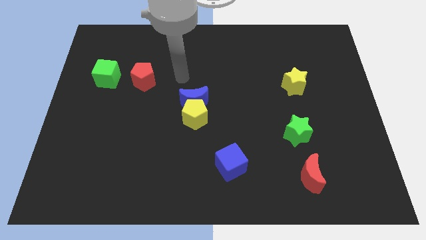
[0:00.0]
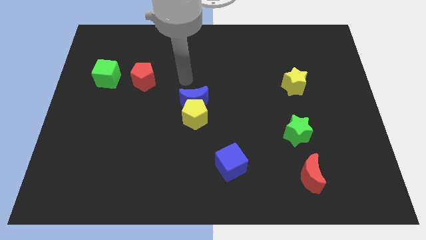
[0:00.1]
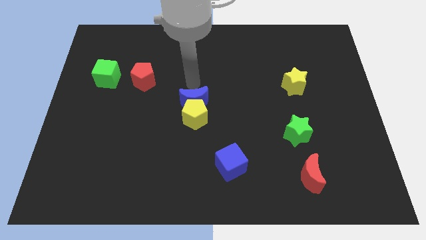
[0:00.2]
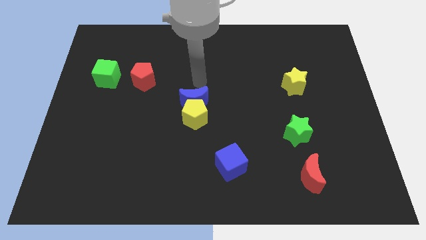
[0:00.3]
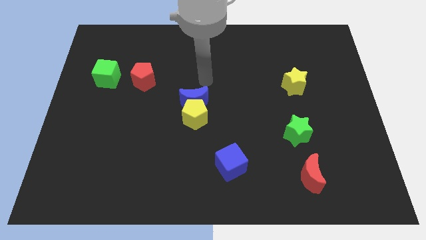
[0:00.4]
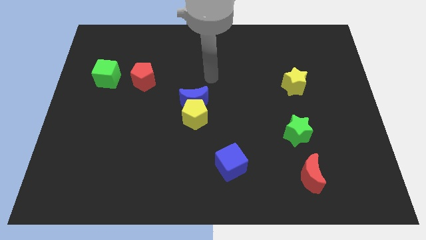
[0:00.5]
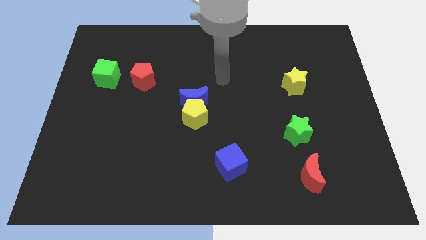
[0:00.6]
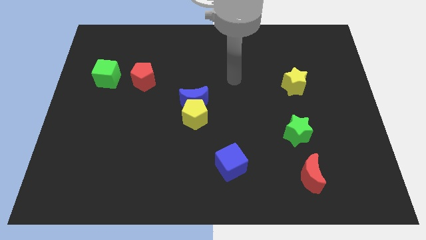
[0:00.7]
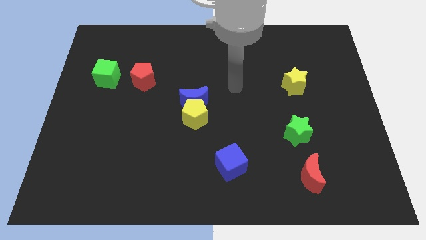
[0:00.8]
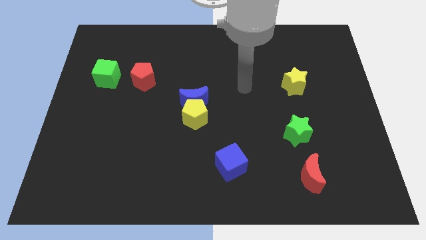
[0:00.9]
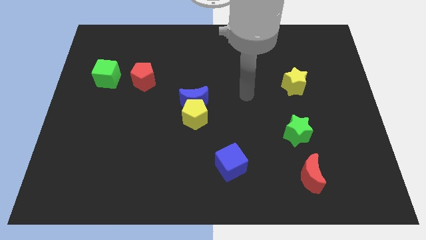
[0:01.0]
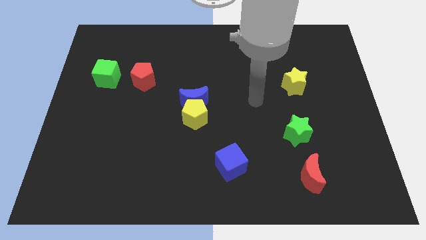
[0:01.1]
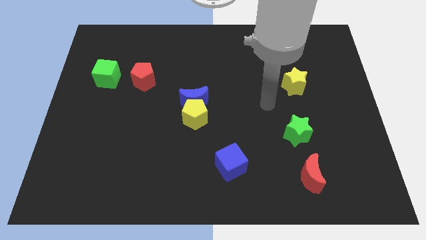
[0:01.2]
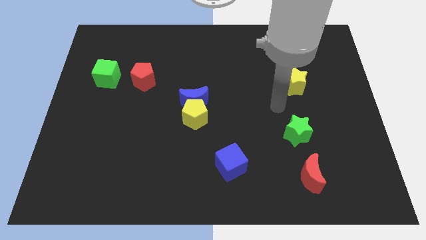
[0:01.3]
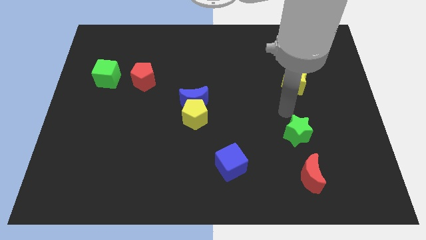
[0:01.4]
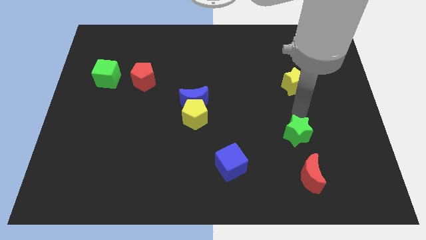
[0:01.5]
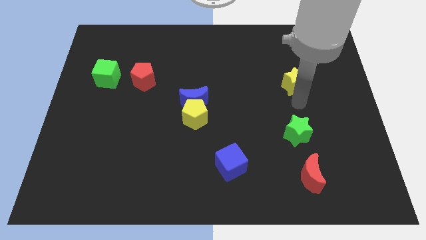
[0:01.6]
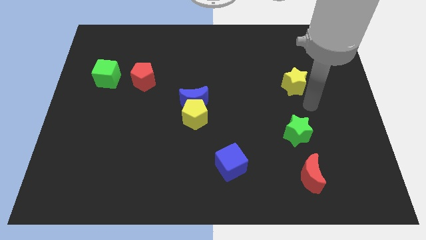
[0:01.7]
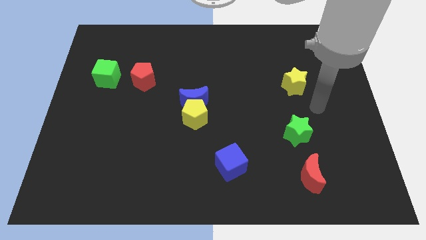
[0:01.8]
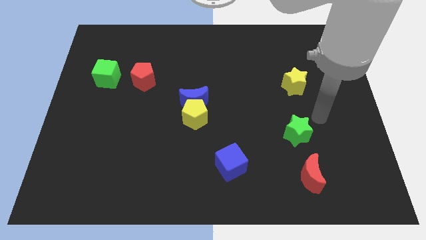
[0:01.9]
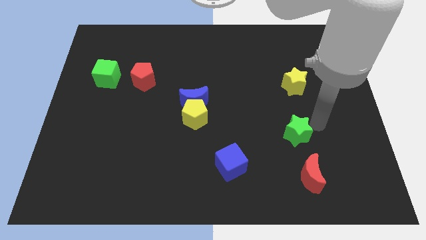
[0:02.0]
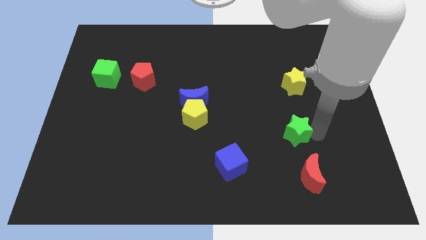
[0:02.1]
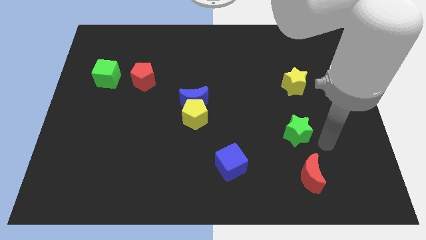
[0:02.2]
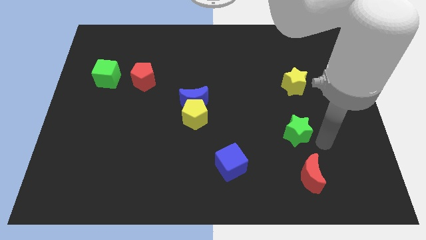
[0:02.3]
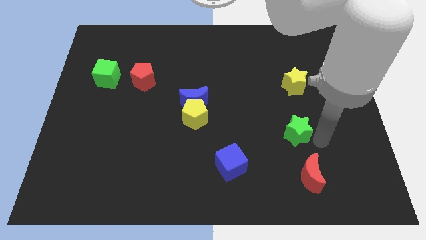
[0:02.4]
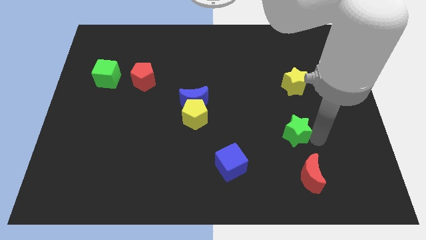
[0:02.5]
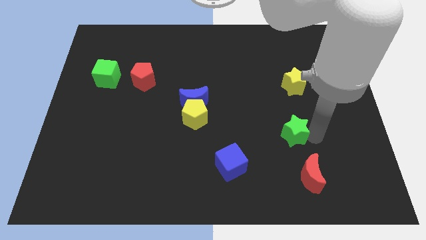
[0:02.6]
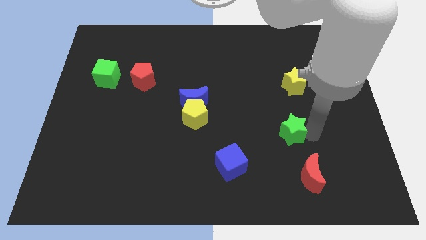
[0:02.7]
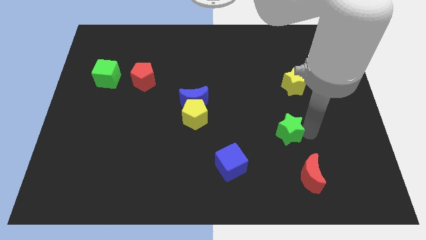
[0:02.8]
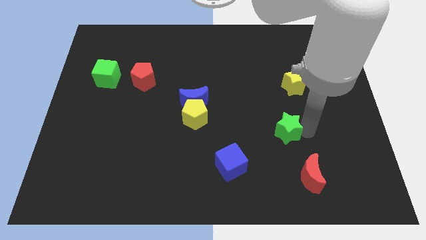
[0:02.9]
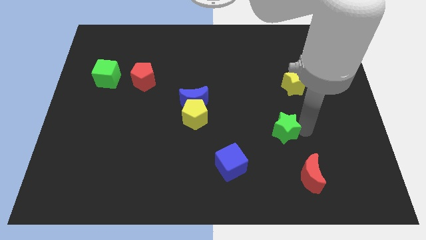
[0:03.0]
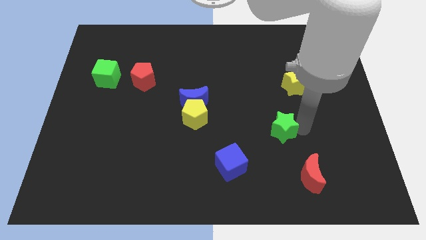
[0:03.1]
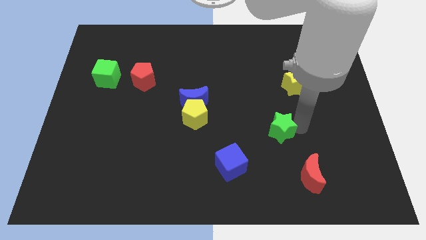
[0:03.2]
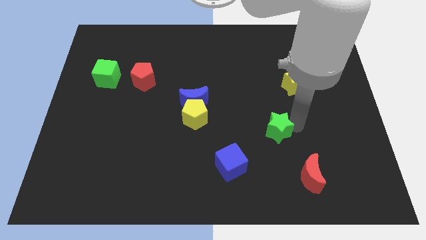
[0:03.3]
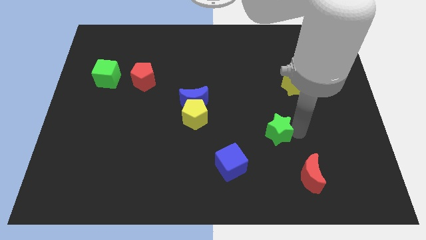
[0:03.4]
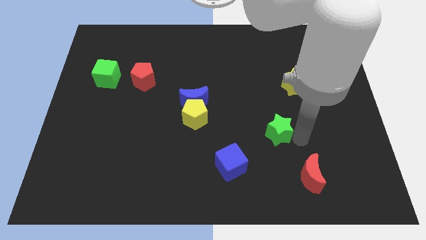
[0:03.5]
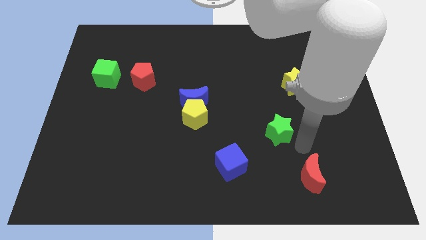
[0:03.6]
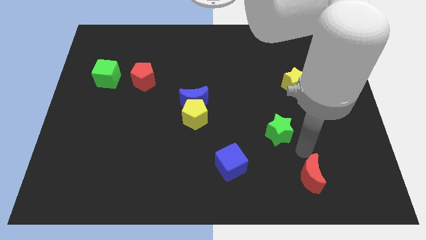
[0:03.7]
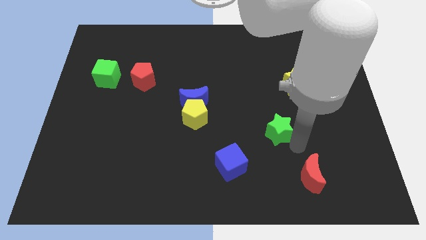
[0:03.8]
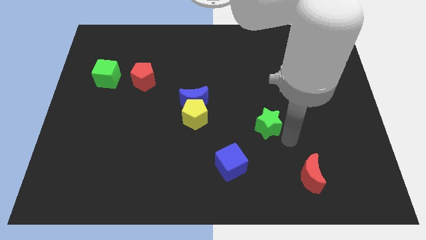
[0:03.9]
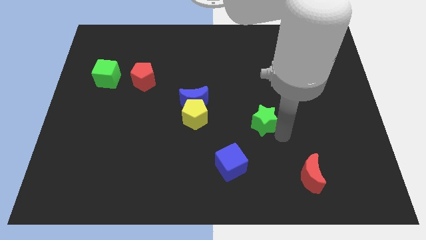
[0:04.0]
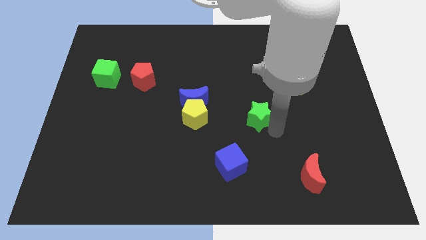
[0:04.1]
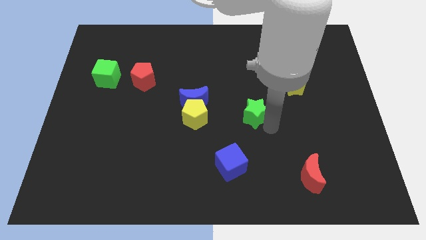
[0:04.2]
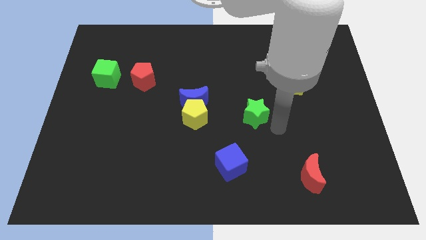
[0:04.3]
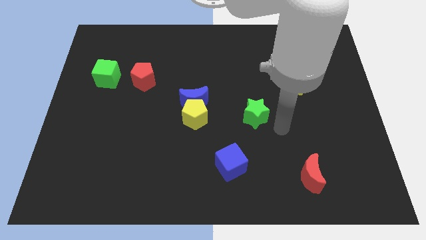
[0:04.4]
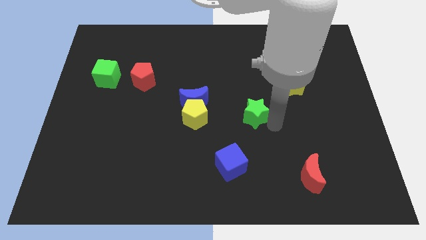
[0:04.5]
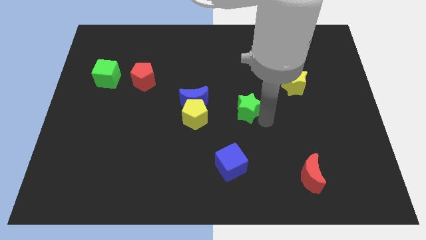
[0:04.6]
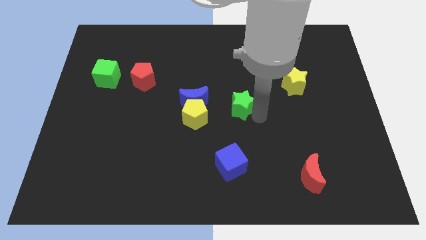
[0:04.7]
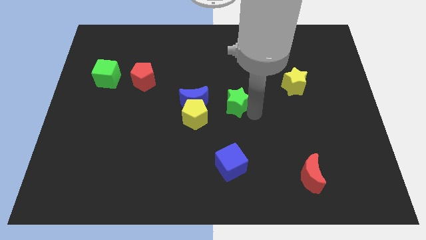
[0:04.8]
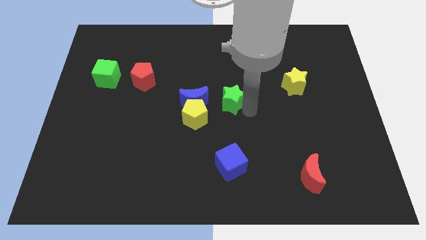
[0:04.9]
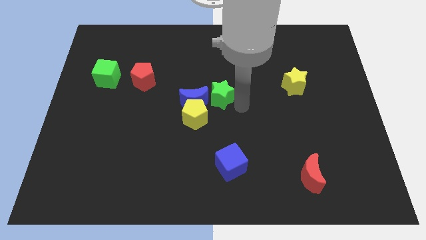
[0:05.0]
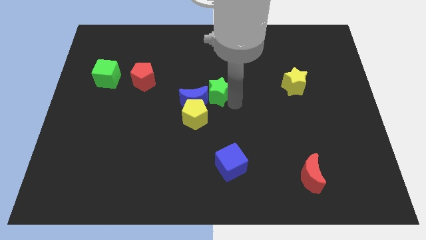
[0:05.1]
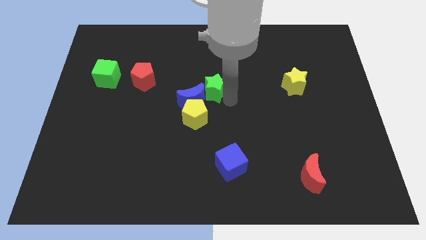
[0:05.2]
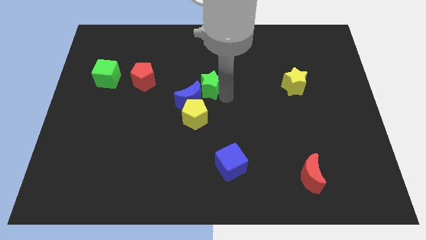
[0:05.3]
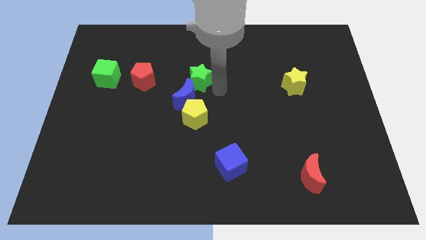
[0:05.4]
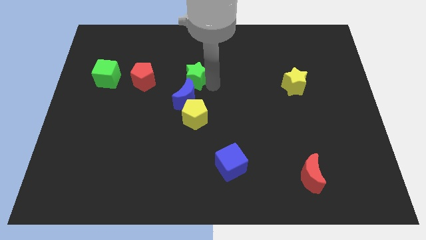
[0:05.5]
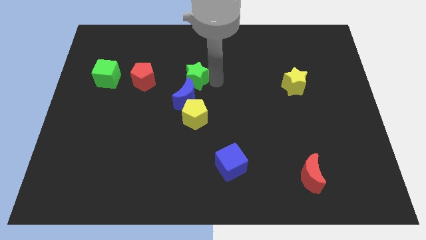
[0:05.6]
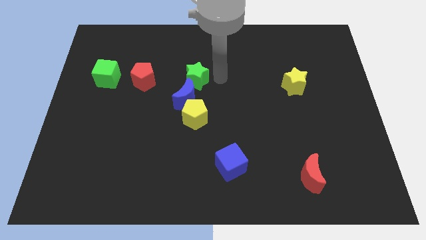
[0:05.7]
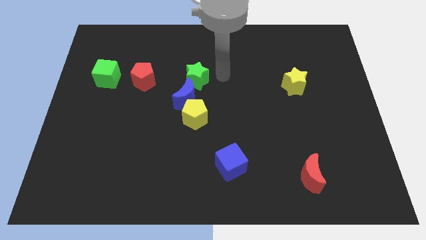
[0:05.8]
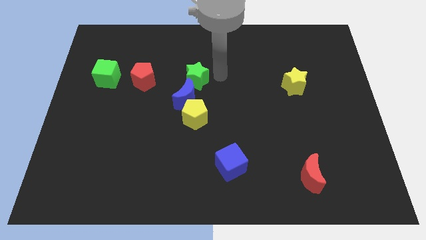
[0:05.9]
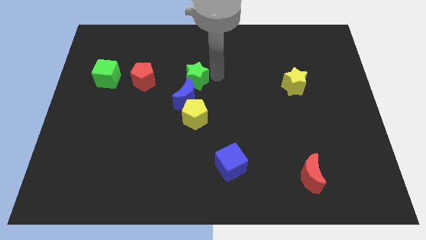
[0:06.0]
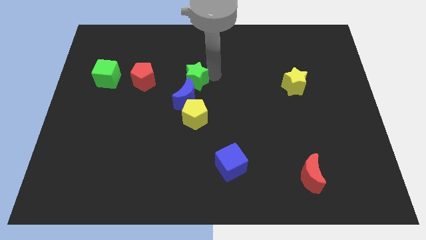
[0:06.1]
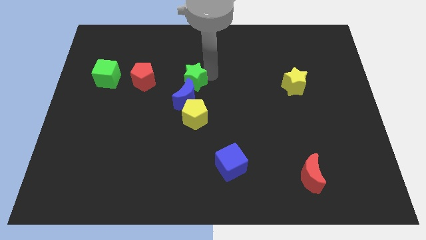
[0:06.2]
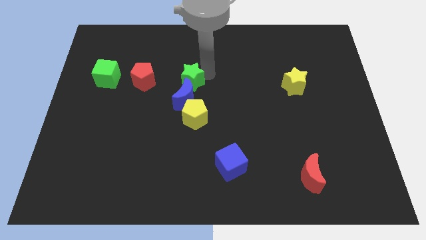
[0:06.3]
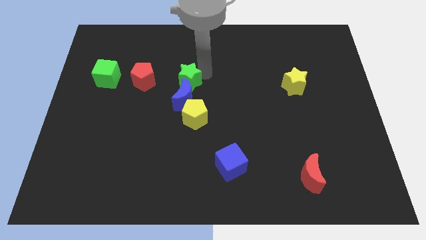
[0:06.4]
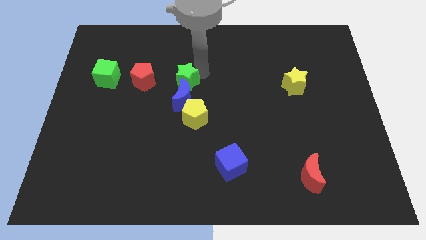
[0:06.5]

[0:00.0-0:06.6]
move the green star diagonally up and to the left of the blue moon

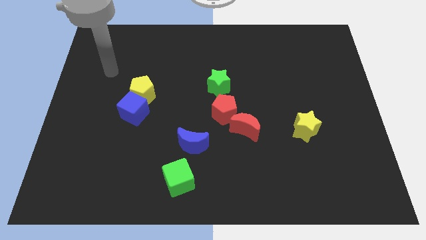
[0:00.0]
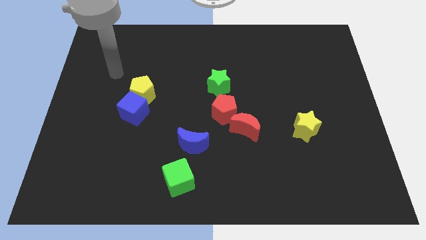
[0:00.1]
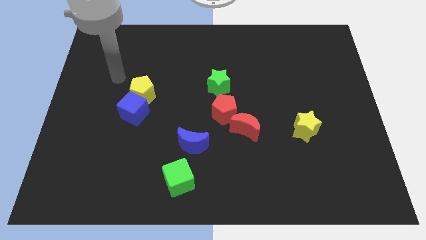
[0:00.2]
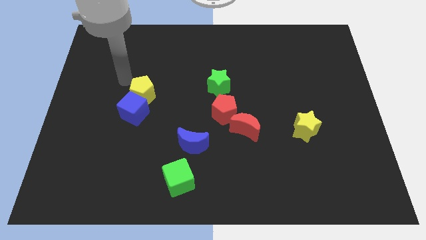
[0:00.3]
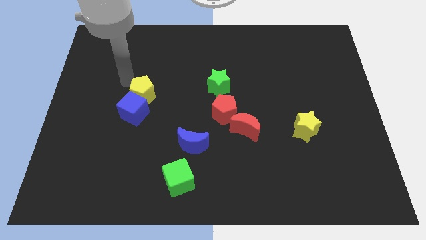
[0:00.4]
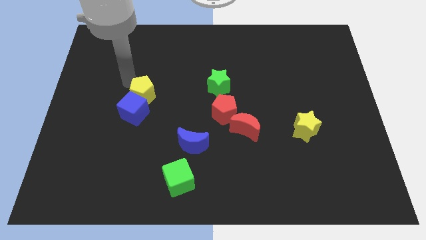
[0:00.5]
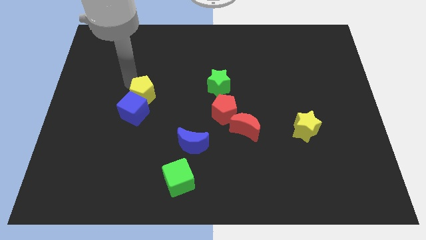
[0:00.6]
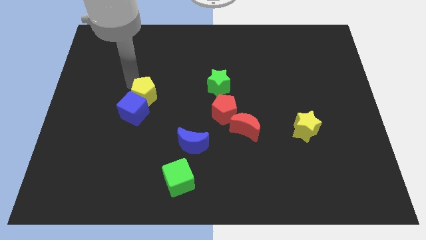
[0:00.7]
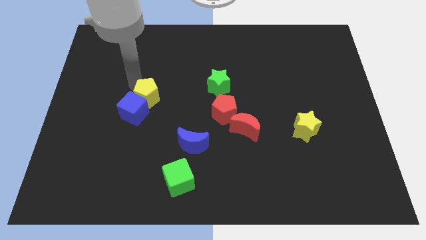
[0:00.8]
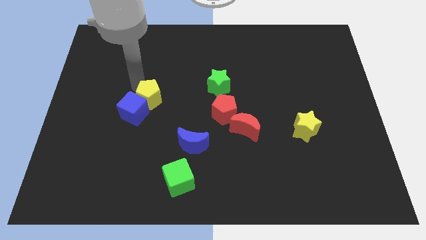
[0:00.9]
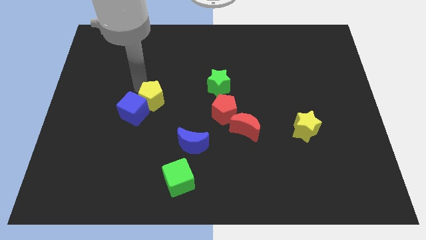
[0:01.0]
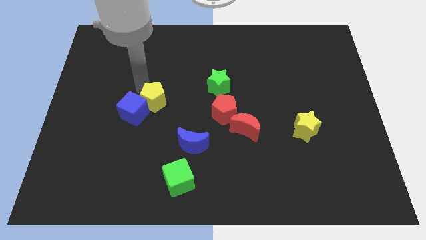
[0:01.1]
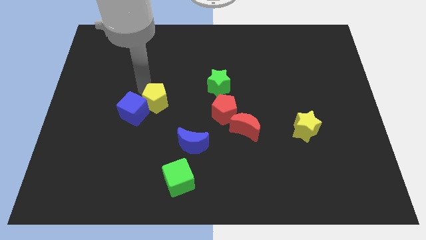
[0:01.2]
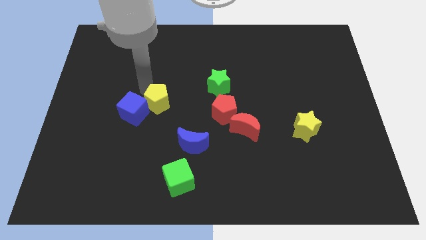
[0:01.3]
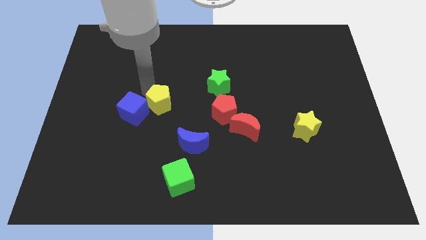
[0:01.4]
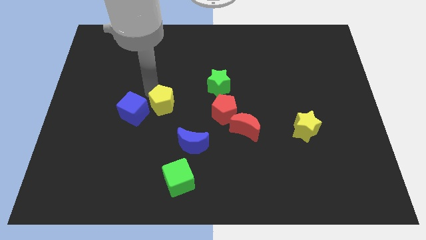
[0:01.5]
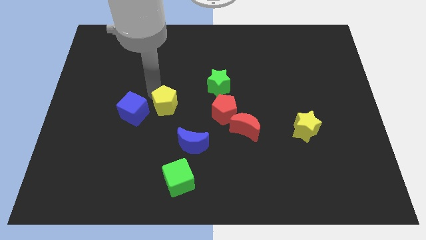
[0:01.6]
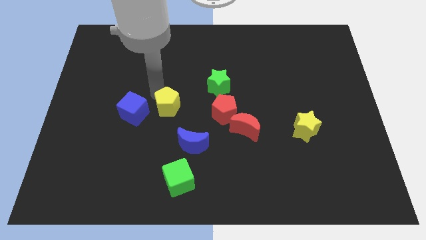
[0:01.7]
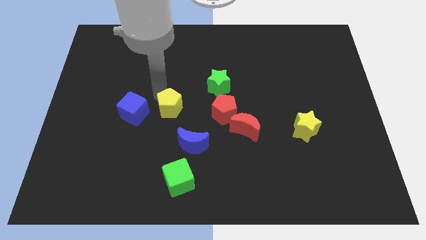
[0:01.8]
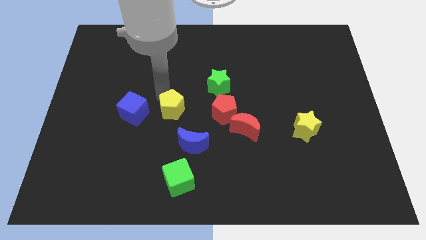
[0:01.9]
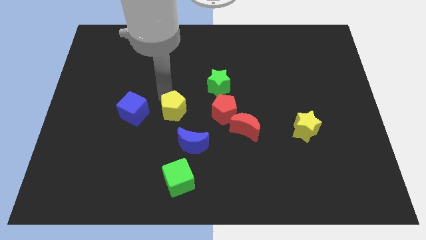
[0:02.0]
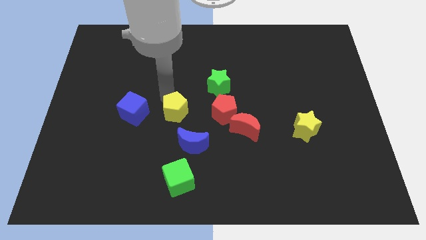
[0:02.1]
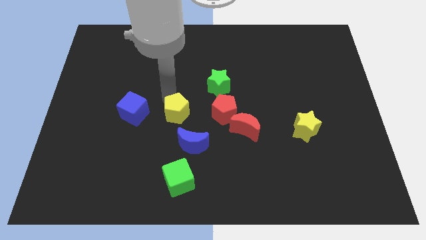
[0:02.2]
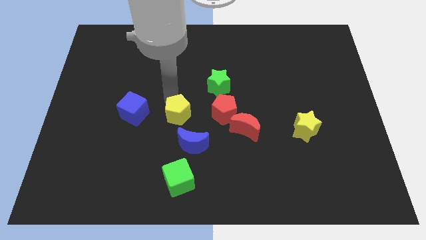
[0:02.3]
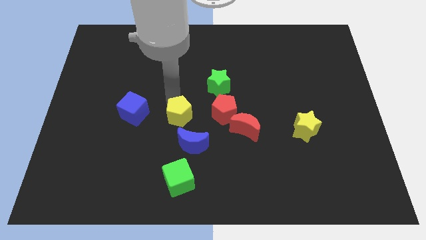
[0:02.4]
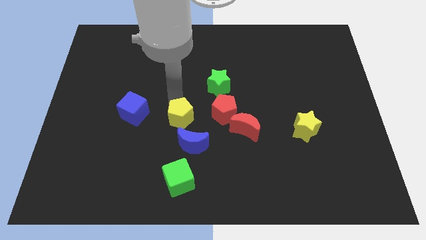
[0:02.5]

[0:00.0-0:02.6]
push the yellow pentagon above the green cube
